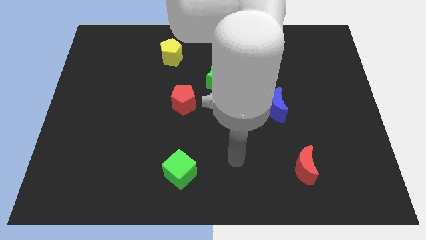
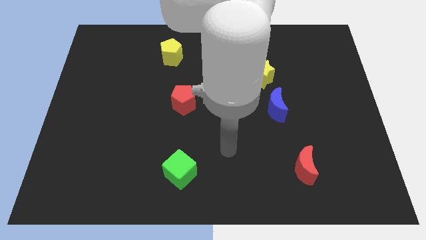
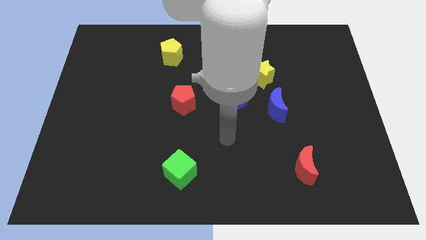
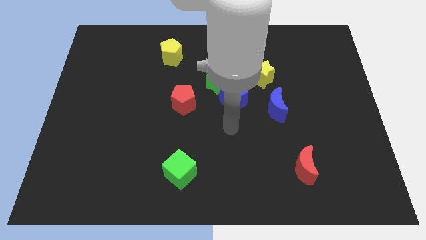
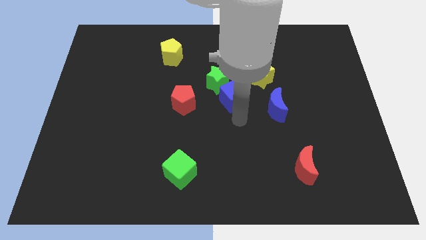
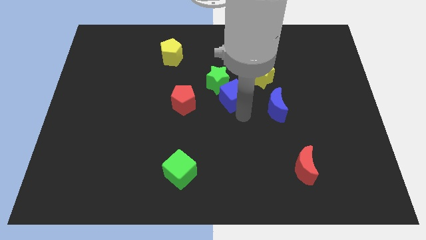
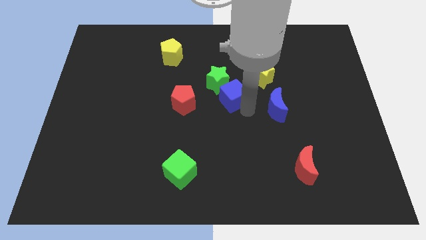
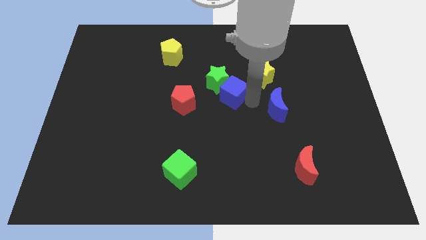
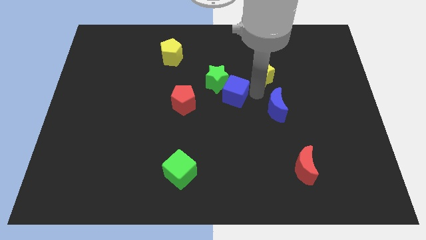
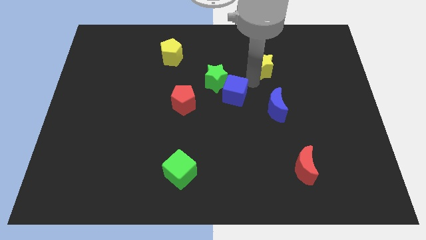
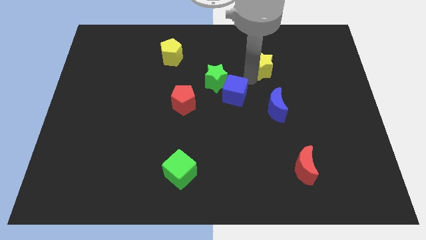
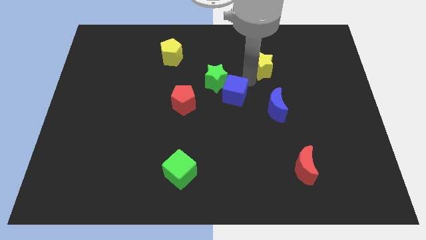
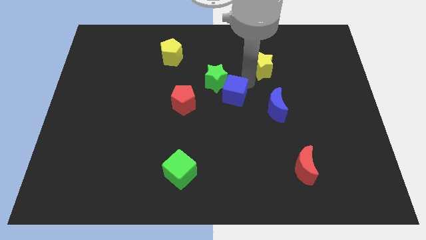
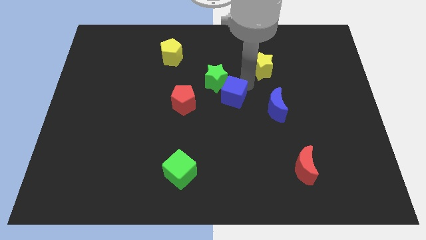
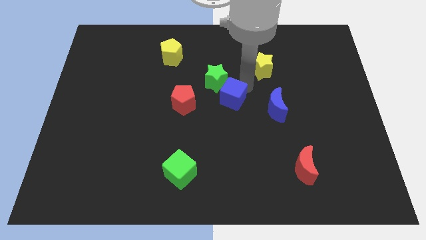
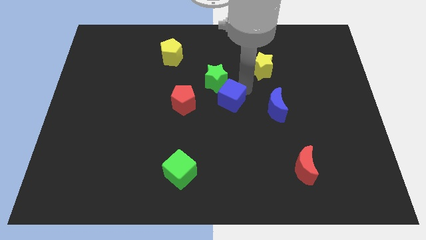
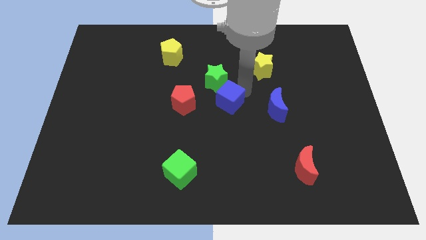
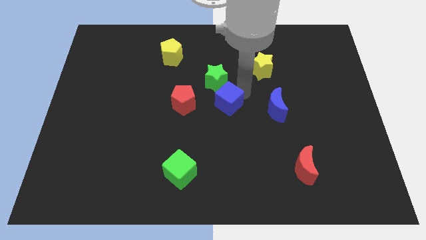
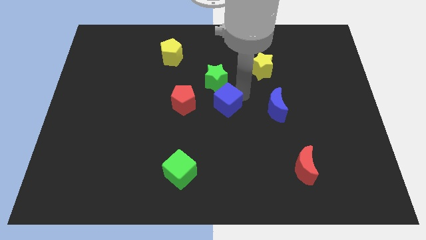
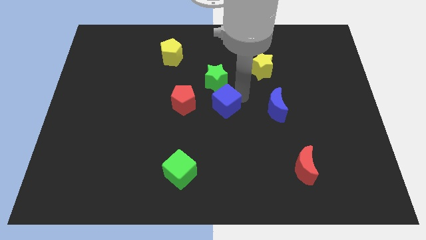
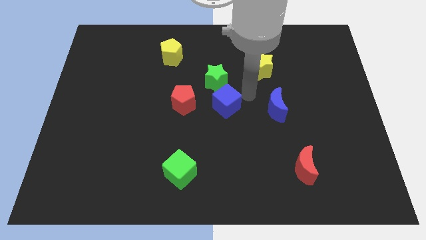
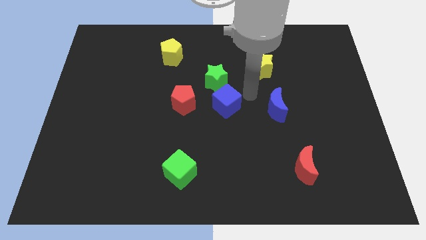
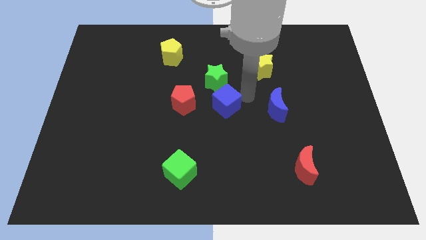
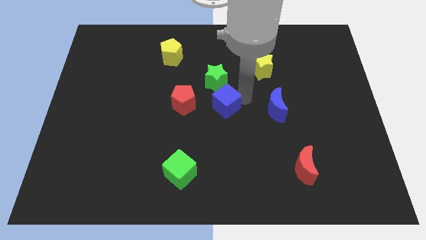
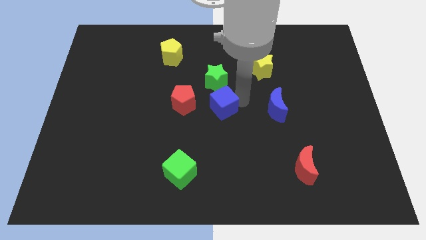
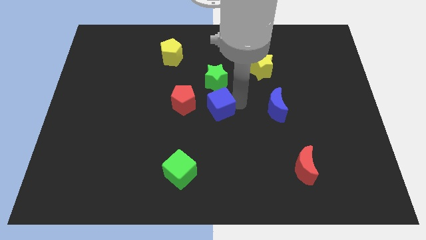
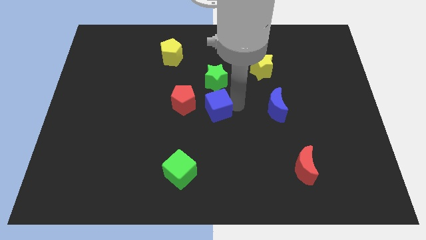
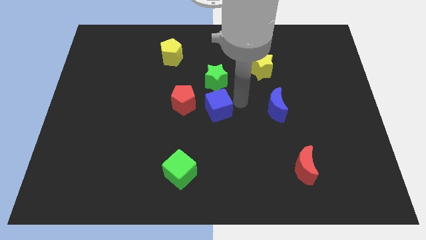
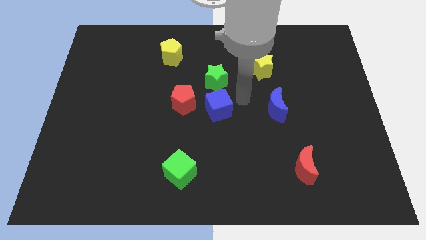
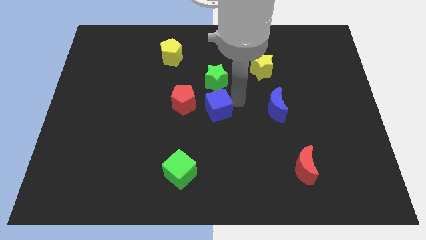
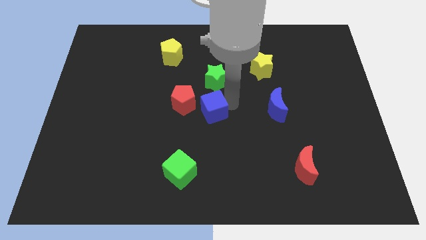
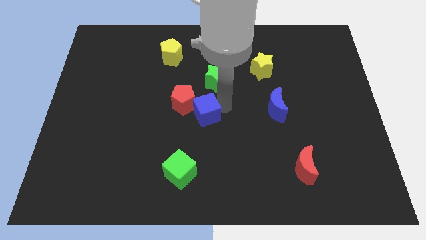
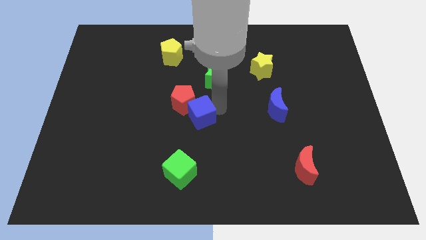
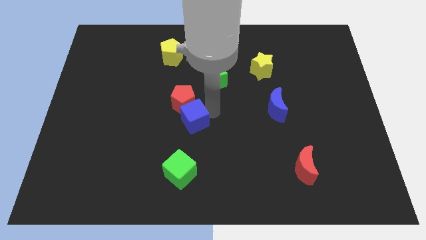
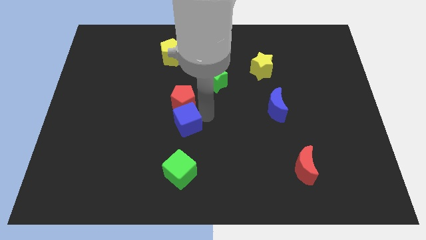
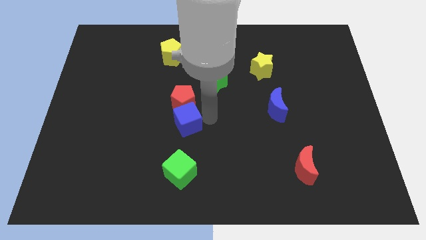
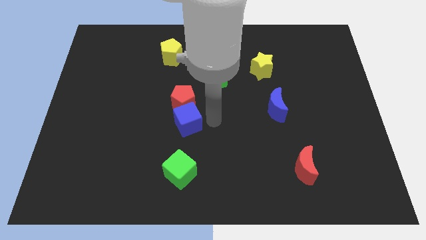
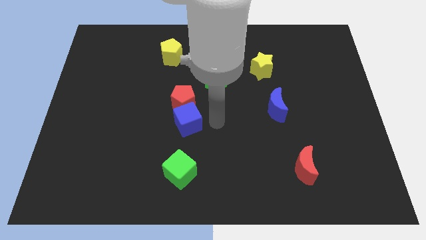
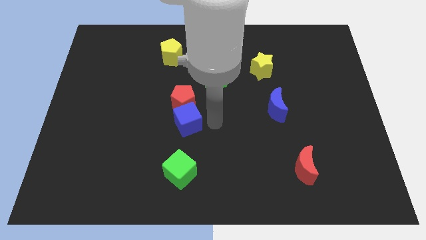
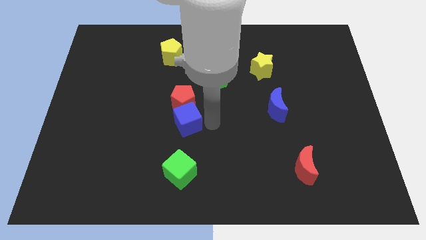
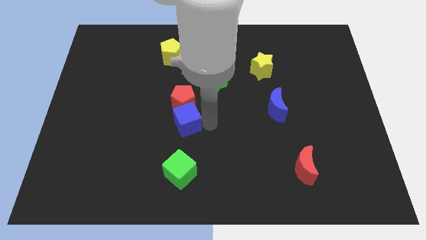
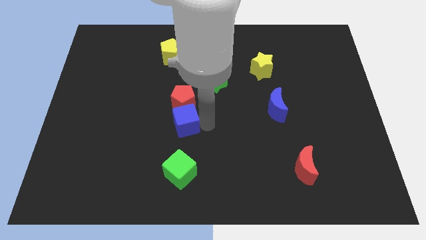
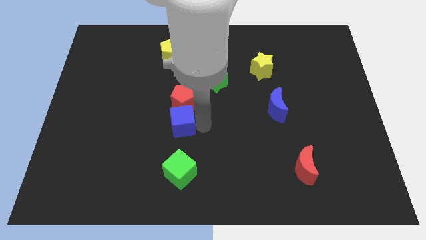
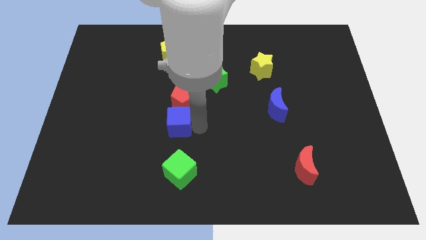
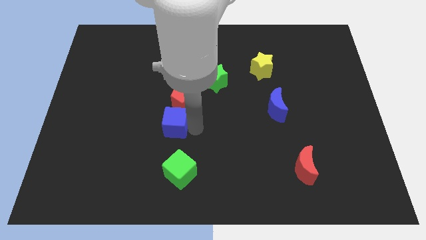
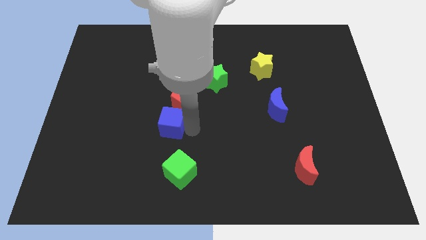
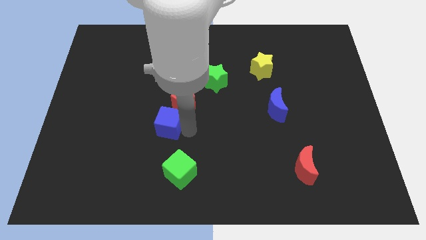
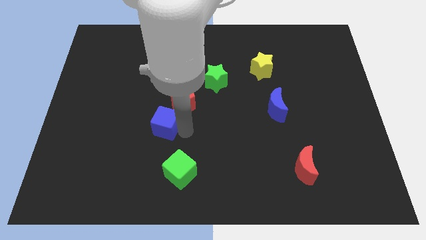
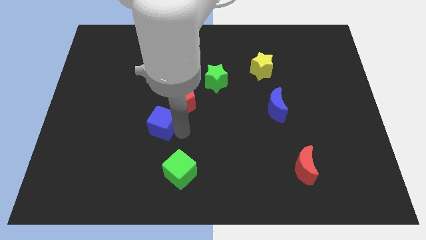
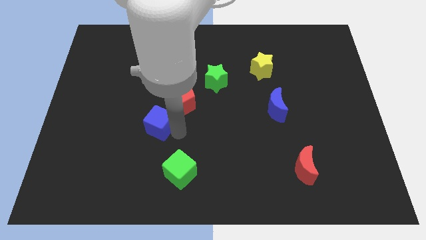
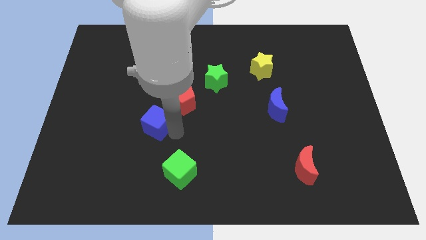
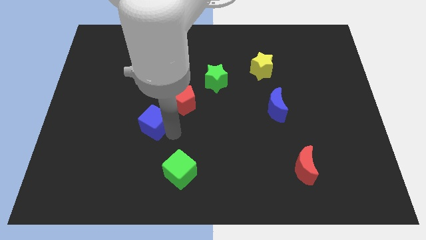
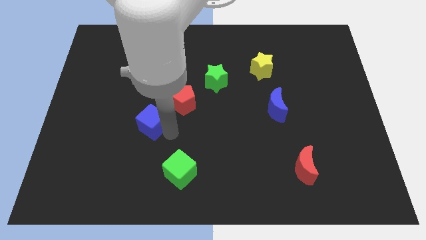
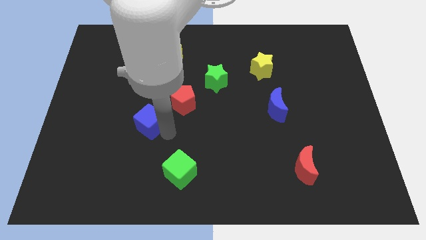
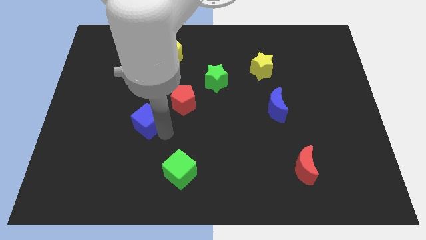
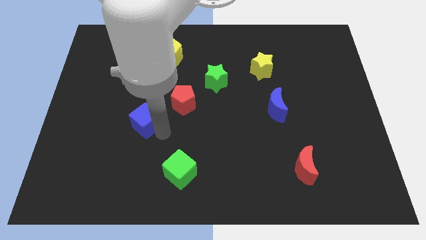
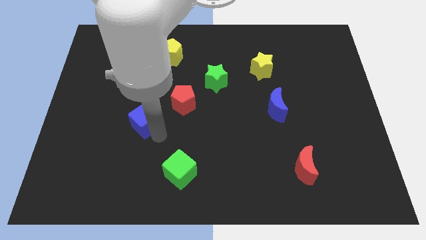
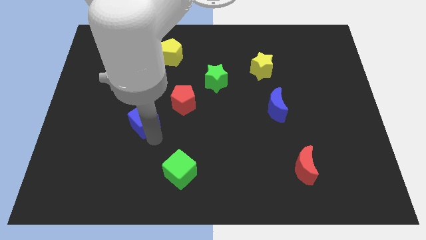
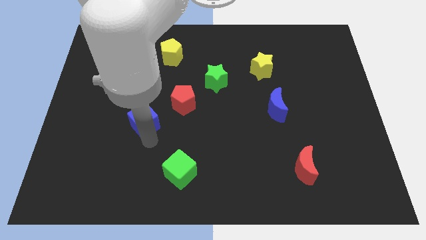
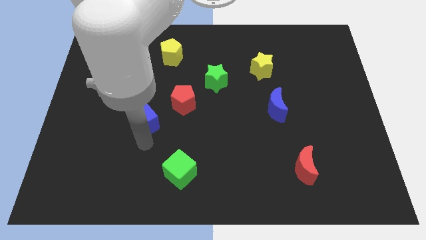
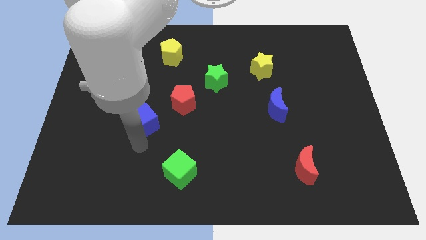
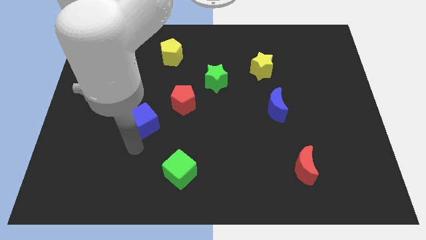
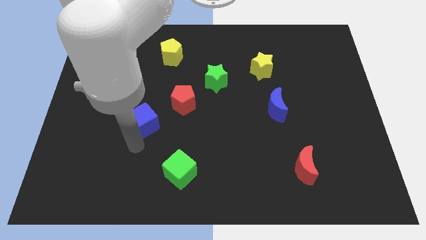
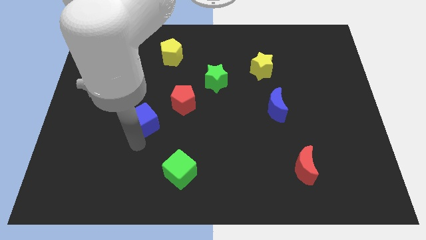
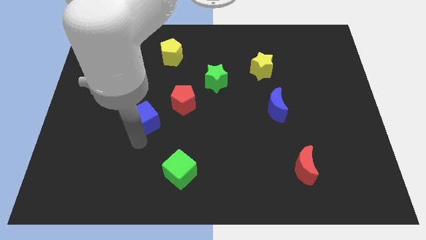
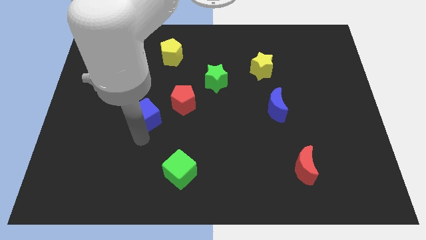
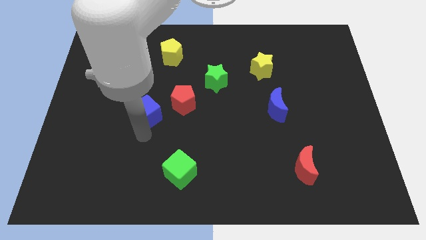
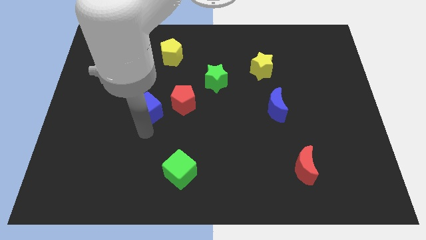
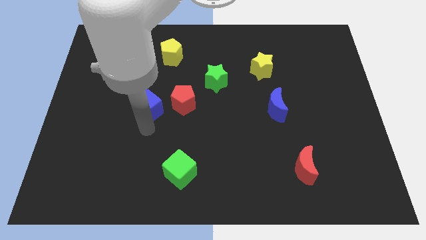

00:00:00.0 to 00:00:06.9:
move the blue cube to the left

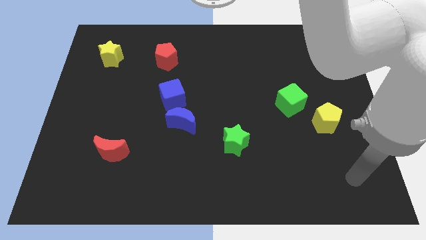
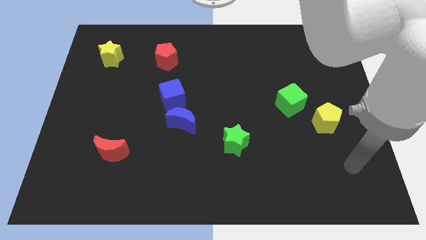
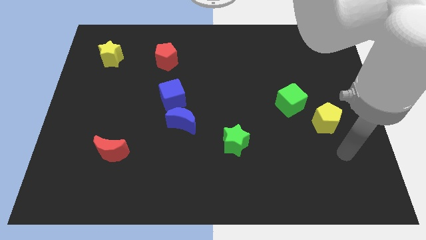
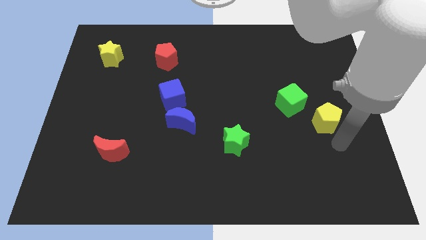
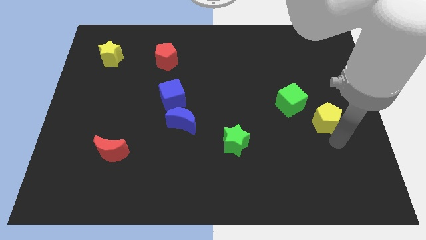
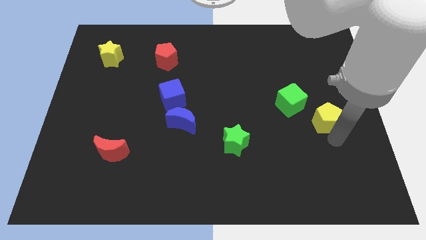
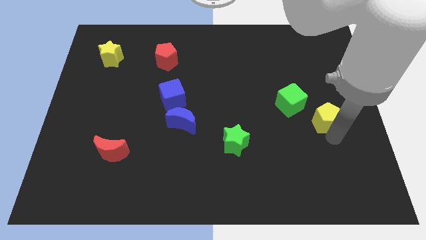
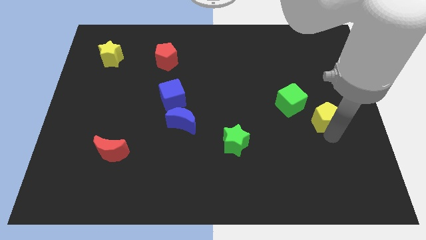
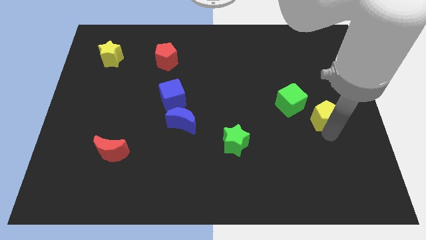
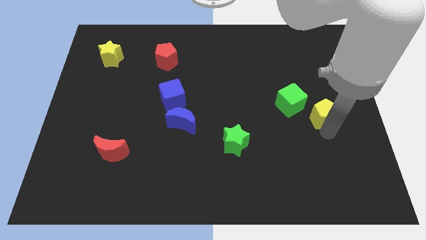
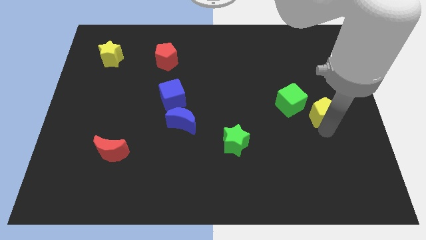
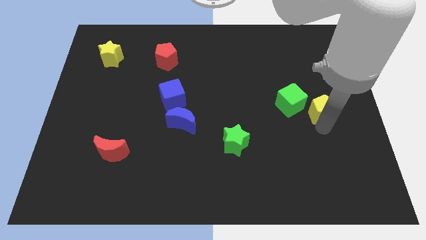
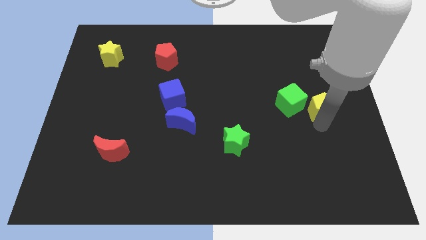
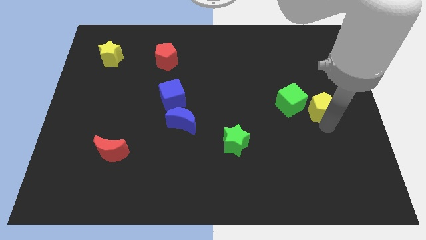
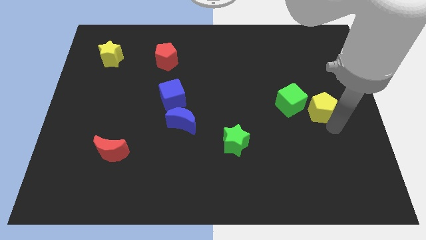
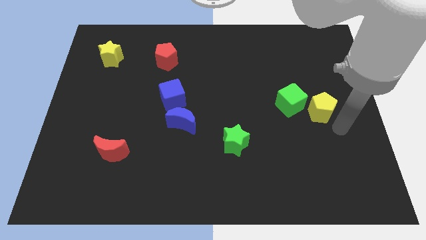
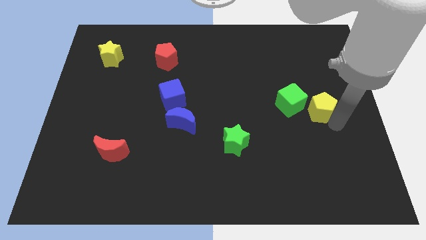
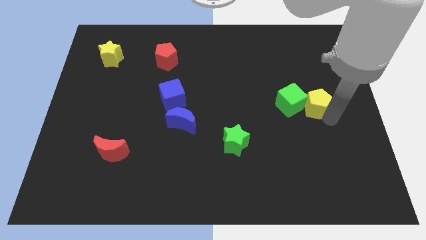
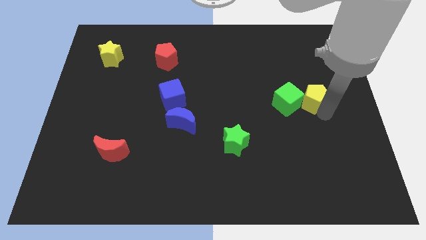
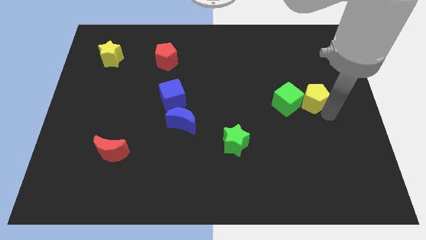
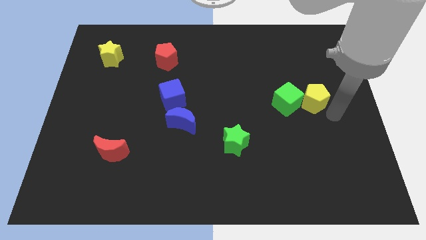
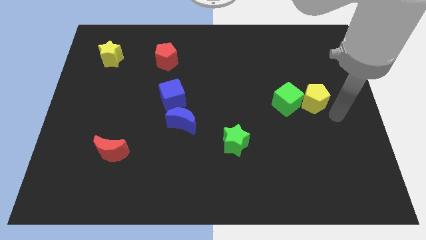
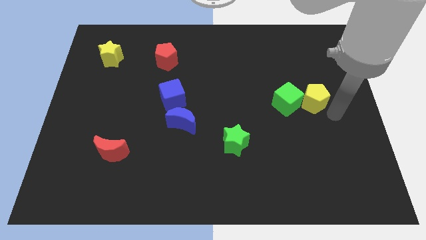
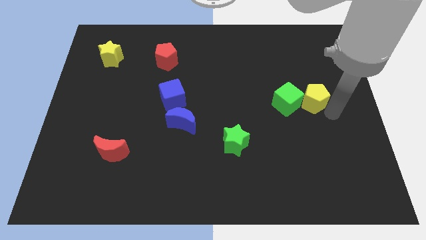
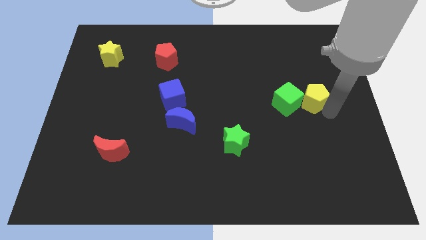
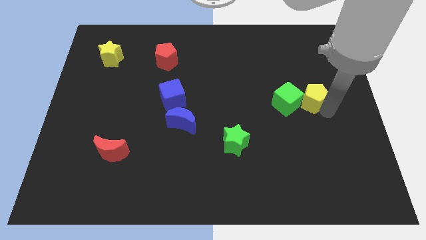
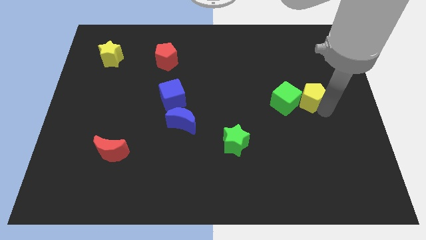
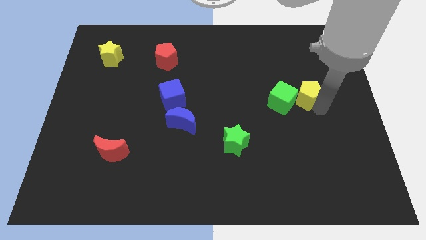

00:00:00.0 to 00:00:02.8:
move the yellow pentagon somewhat up and to the left
